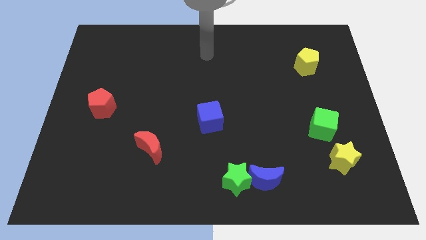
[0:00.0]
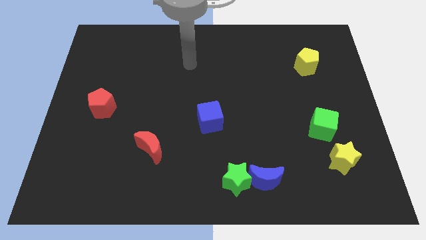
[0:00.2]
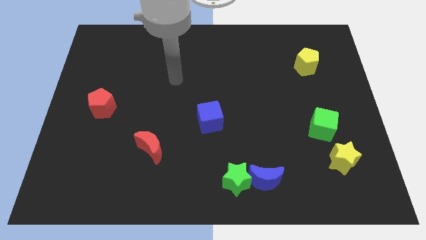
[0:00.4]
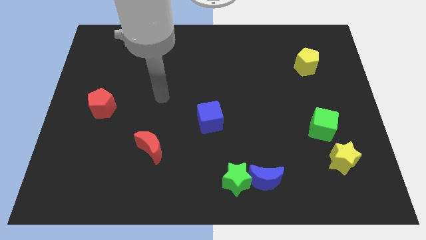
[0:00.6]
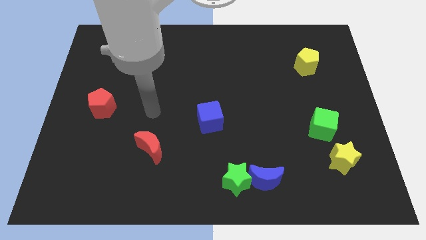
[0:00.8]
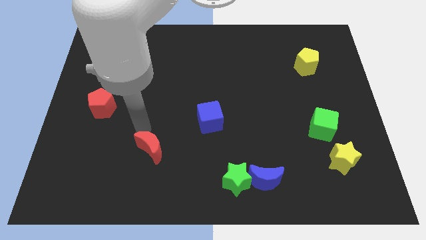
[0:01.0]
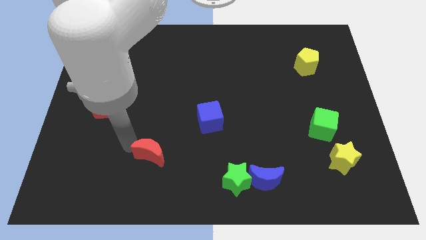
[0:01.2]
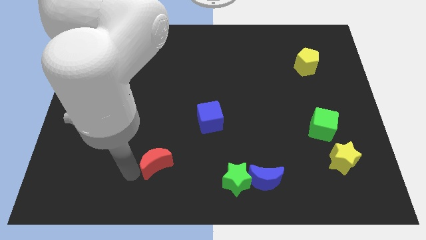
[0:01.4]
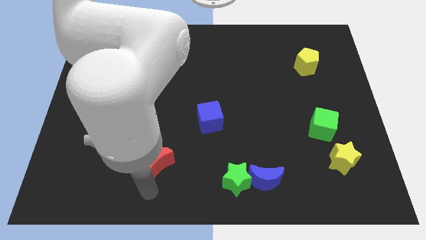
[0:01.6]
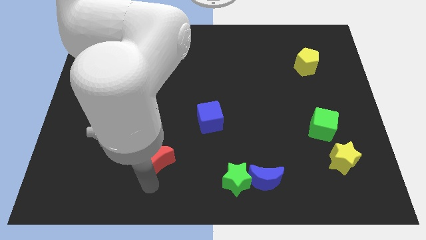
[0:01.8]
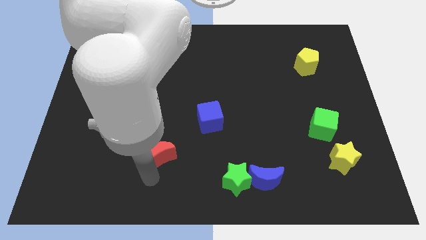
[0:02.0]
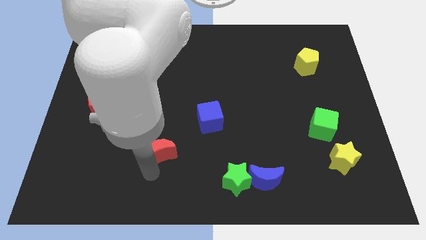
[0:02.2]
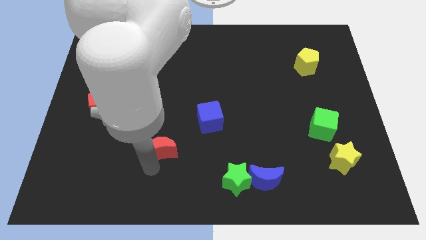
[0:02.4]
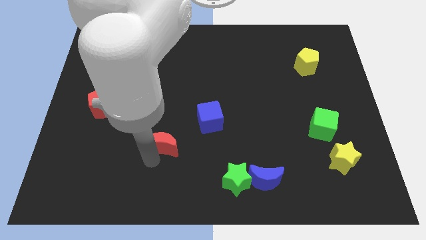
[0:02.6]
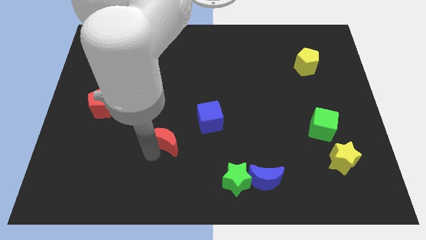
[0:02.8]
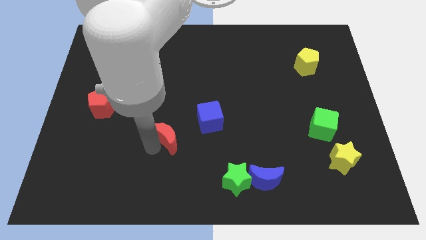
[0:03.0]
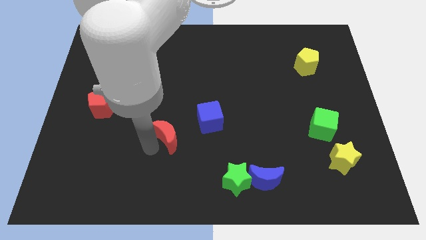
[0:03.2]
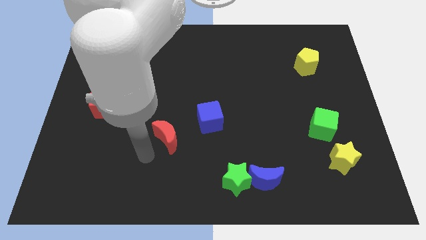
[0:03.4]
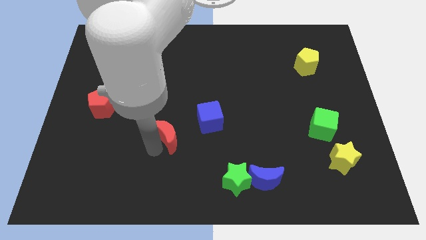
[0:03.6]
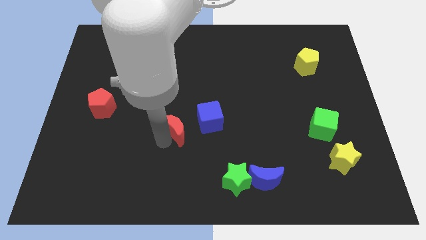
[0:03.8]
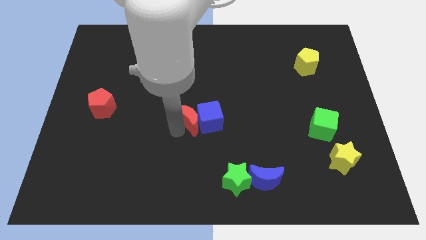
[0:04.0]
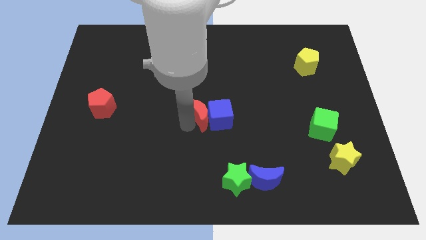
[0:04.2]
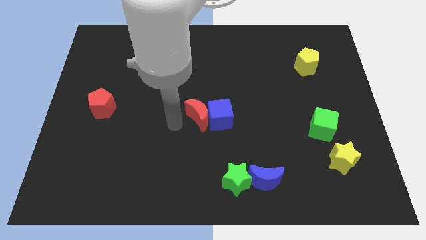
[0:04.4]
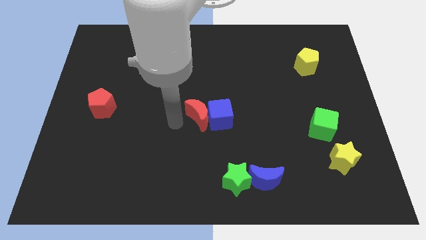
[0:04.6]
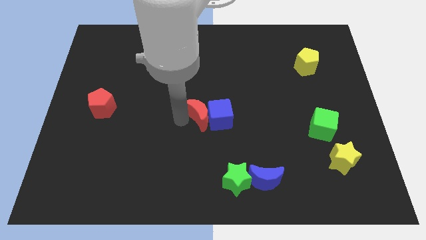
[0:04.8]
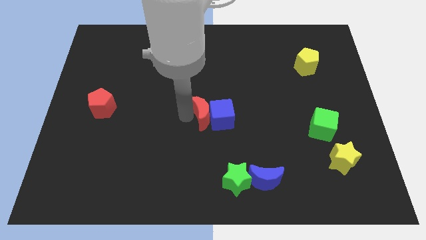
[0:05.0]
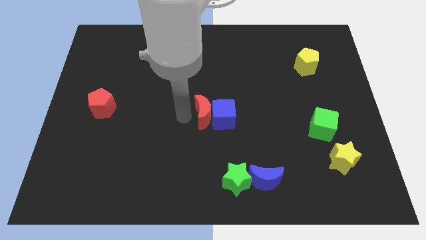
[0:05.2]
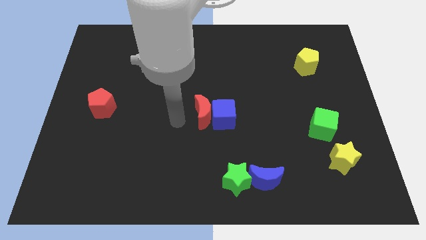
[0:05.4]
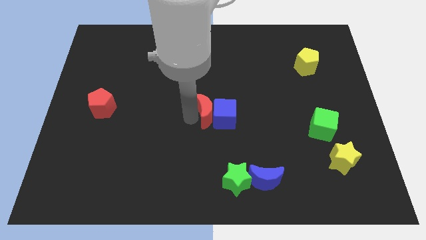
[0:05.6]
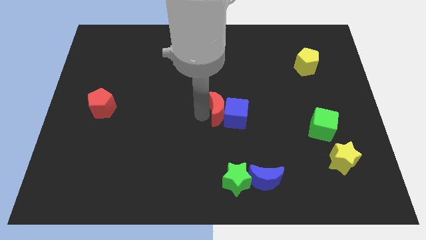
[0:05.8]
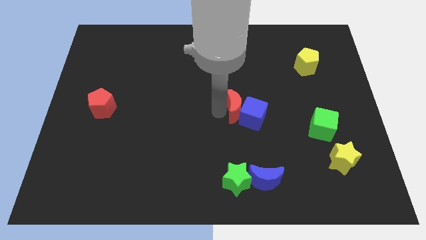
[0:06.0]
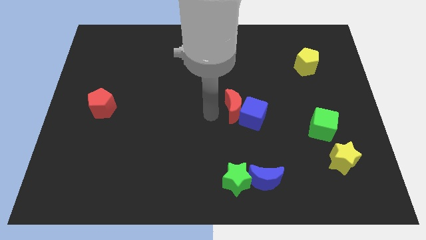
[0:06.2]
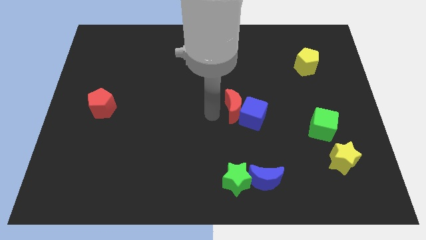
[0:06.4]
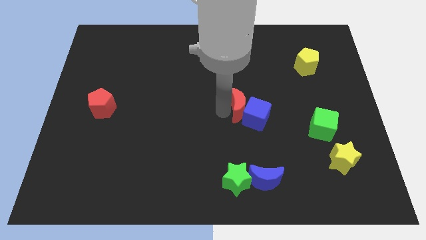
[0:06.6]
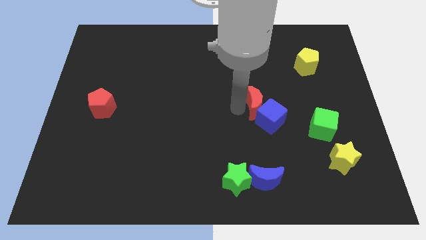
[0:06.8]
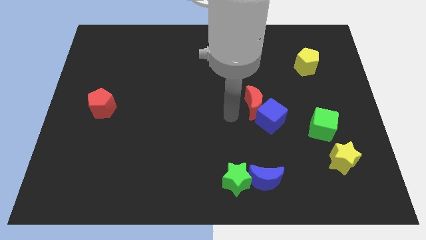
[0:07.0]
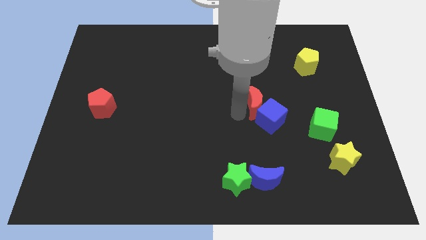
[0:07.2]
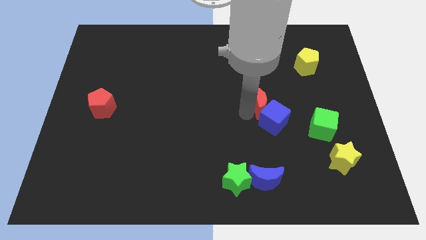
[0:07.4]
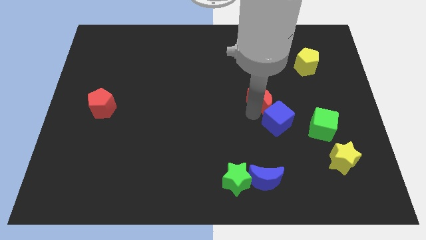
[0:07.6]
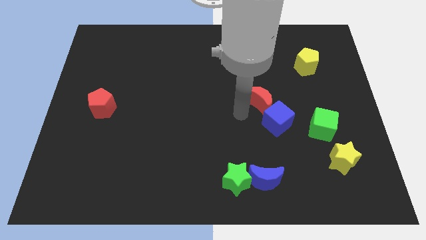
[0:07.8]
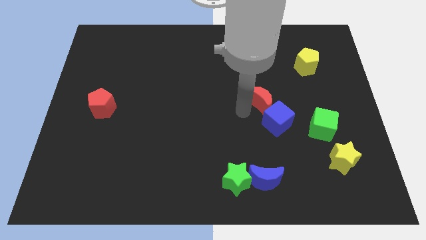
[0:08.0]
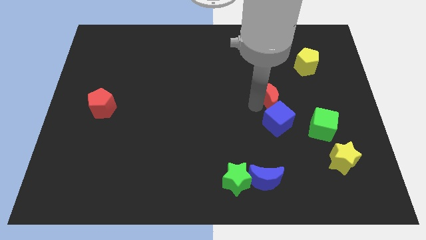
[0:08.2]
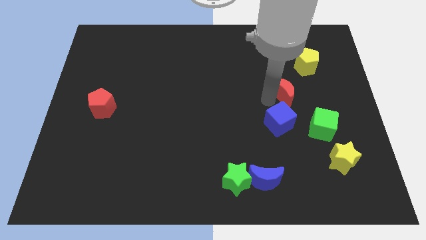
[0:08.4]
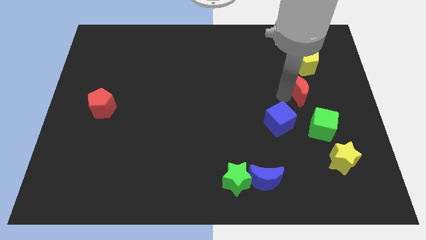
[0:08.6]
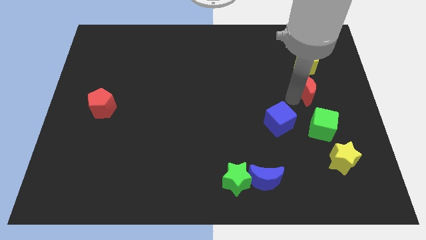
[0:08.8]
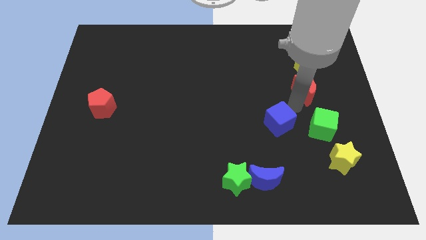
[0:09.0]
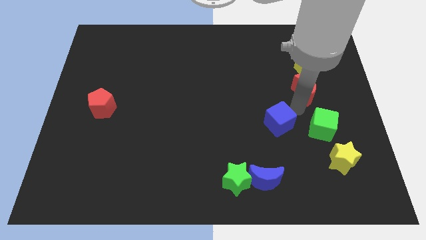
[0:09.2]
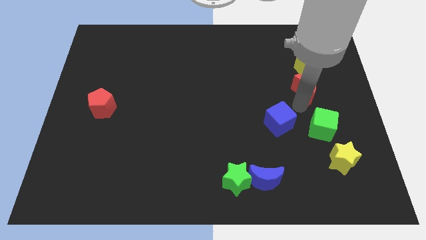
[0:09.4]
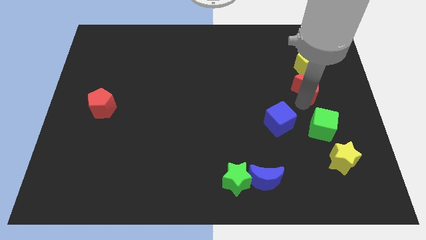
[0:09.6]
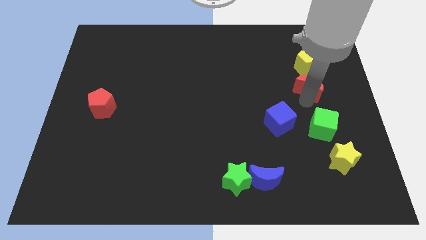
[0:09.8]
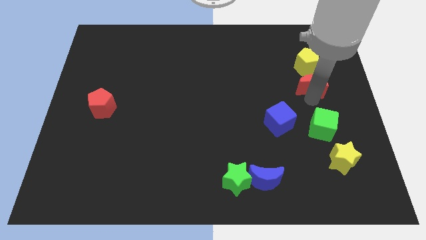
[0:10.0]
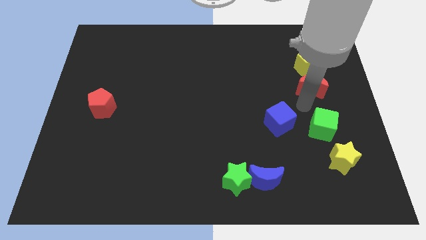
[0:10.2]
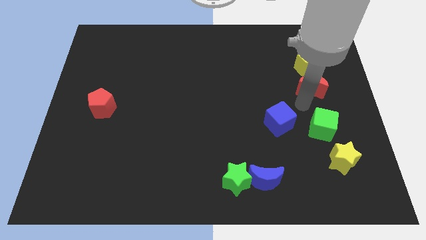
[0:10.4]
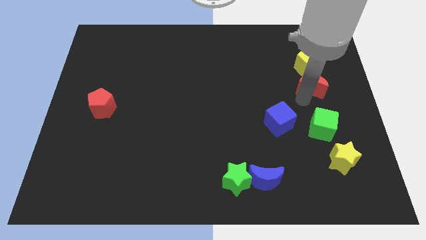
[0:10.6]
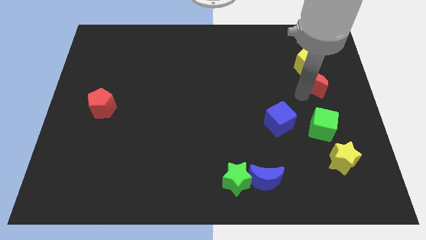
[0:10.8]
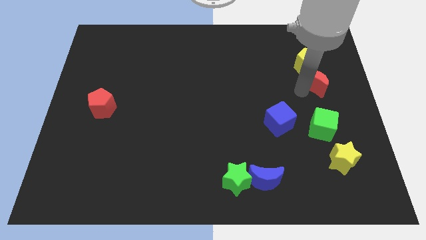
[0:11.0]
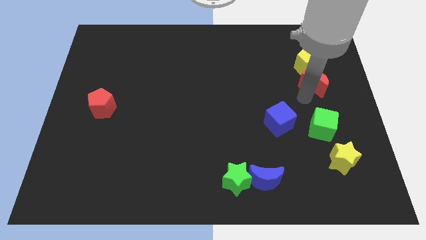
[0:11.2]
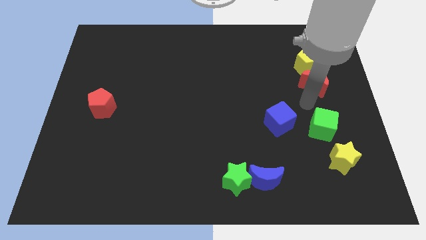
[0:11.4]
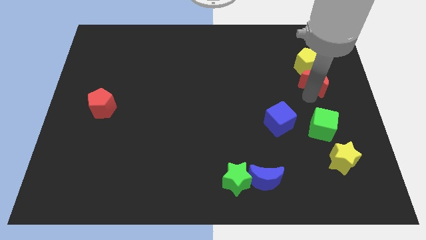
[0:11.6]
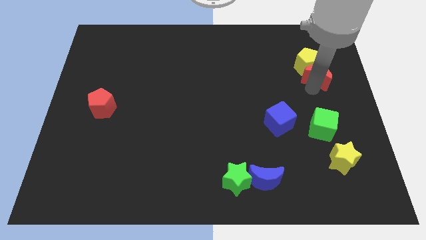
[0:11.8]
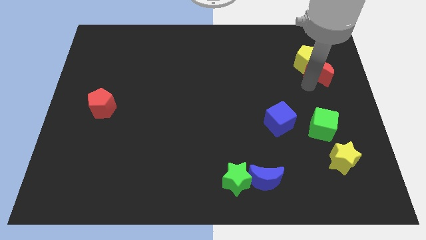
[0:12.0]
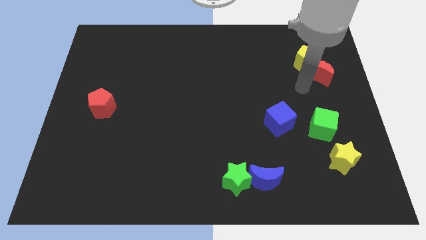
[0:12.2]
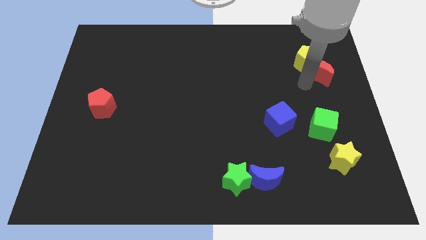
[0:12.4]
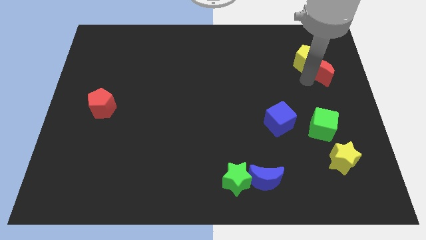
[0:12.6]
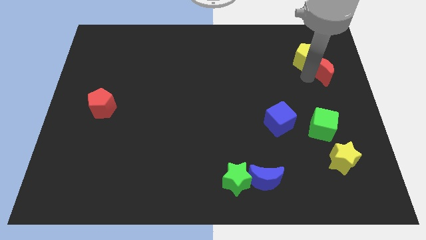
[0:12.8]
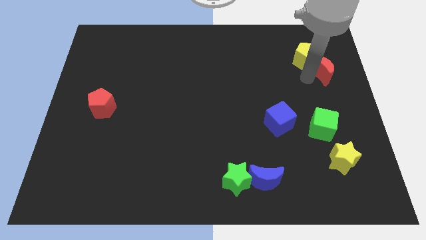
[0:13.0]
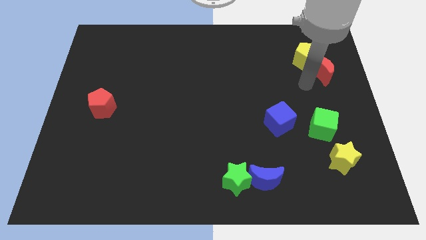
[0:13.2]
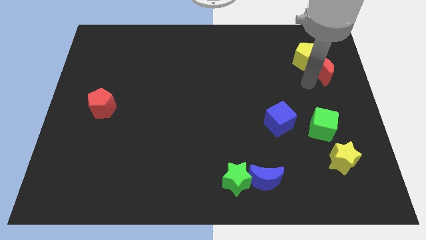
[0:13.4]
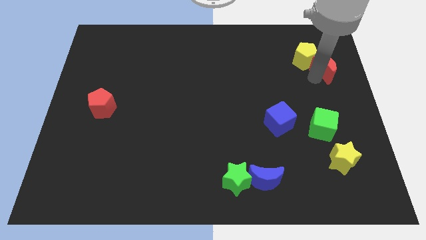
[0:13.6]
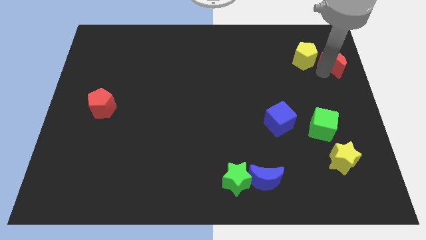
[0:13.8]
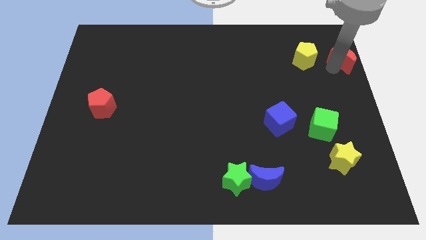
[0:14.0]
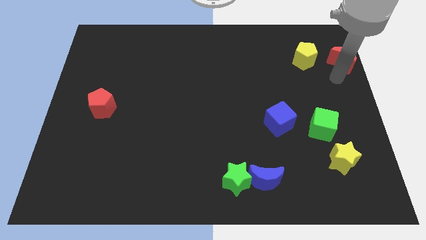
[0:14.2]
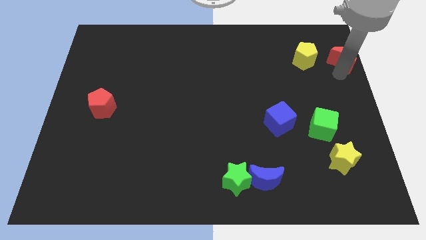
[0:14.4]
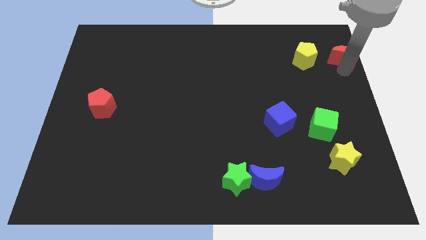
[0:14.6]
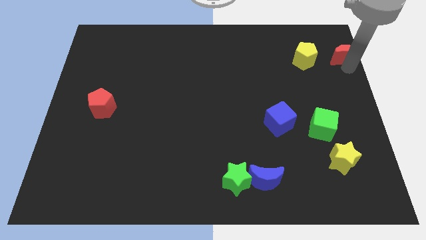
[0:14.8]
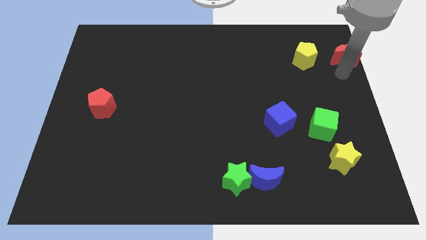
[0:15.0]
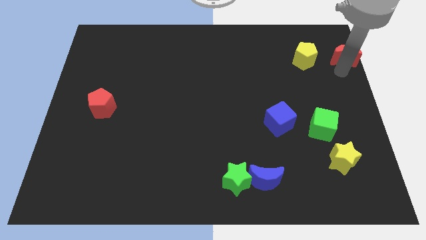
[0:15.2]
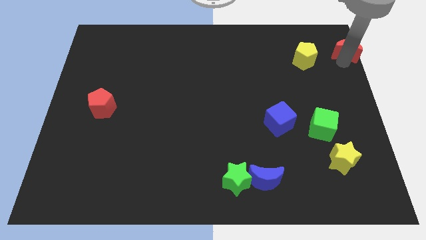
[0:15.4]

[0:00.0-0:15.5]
slide the red moon to the upper right corner

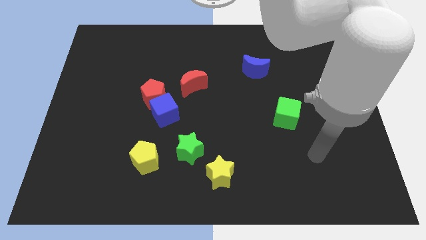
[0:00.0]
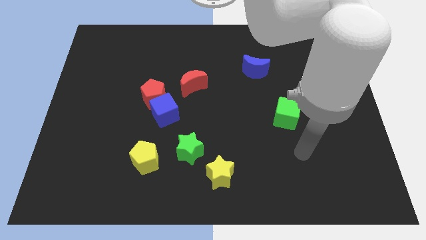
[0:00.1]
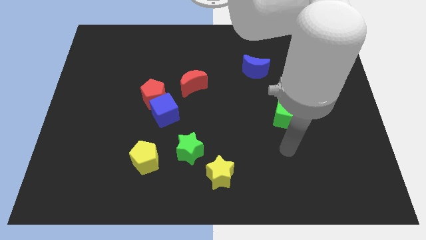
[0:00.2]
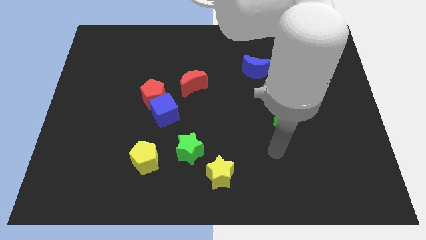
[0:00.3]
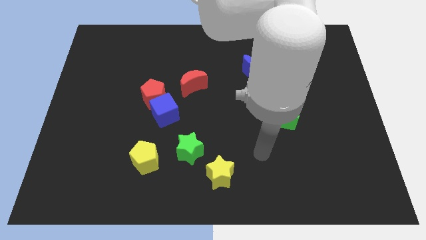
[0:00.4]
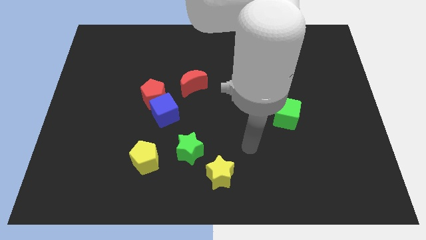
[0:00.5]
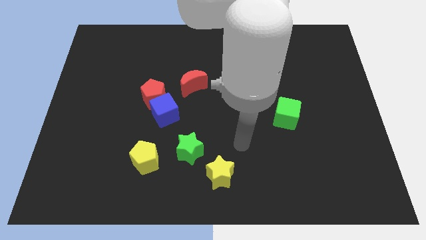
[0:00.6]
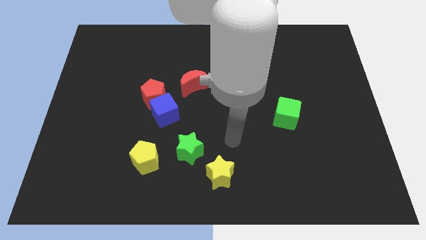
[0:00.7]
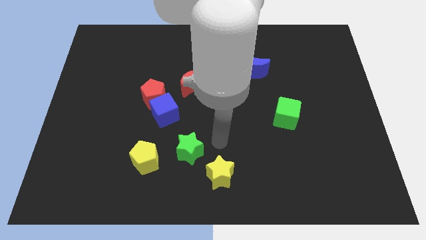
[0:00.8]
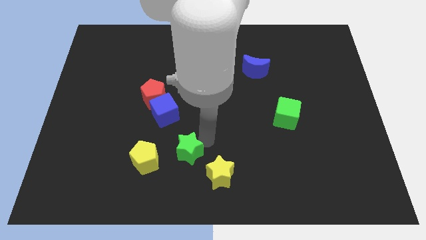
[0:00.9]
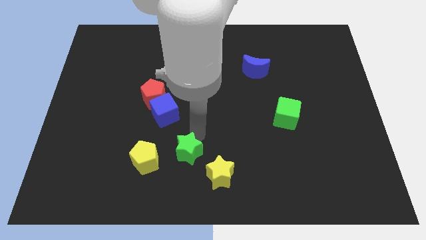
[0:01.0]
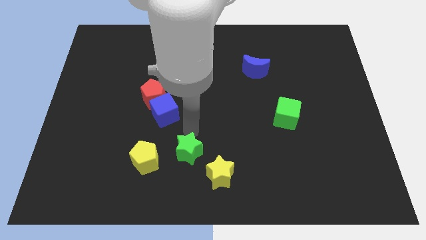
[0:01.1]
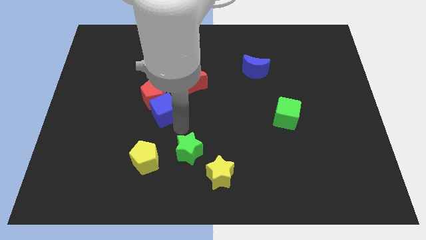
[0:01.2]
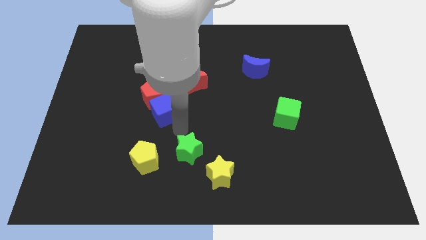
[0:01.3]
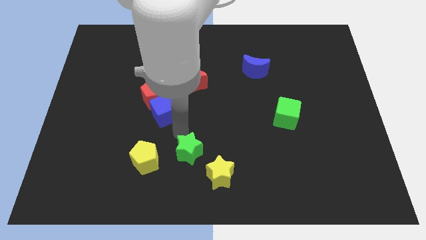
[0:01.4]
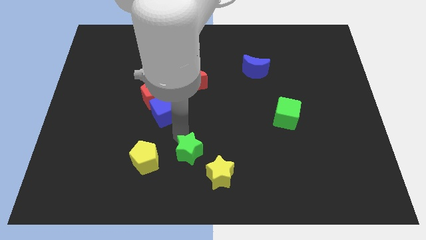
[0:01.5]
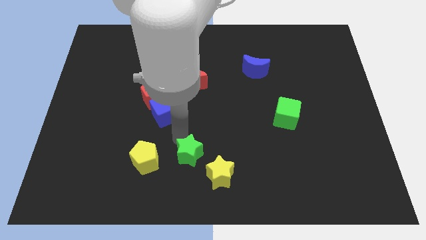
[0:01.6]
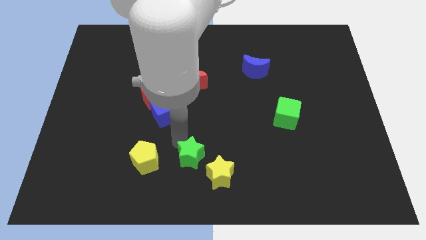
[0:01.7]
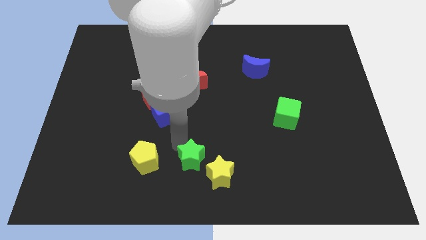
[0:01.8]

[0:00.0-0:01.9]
push the green star to the bottom
